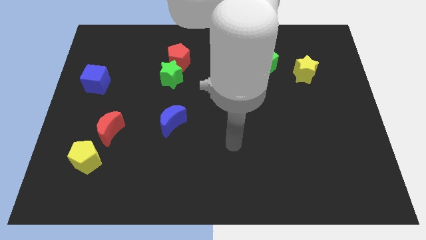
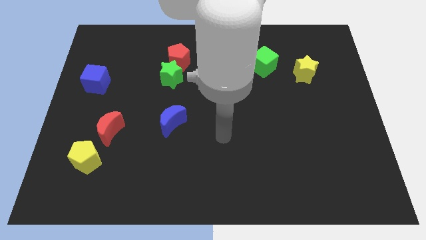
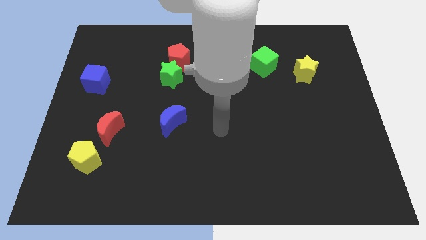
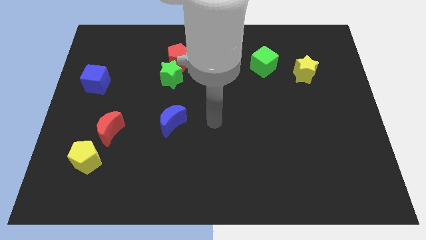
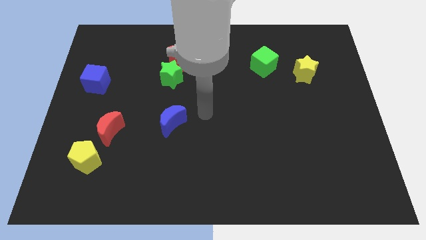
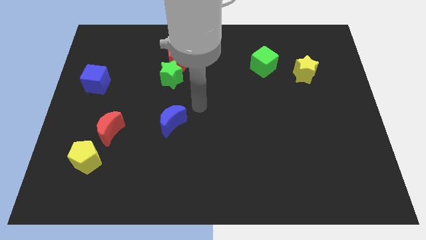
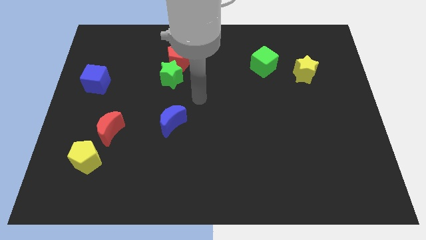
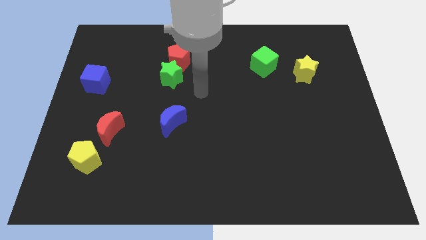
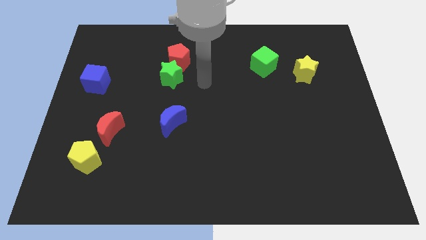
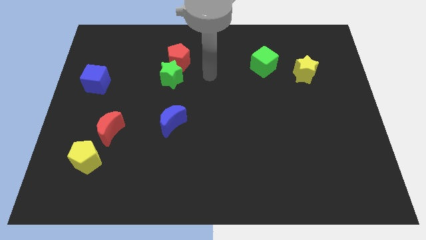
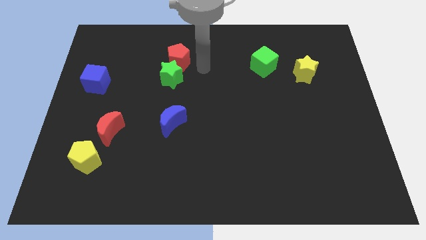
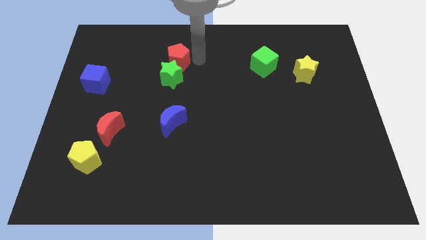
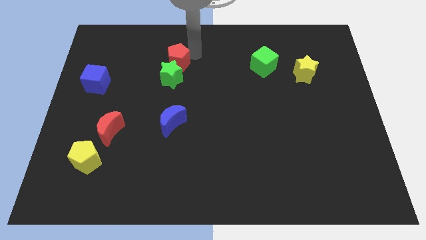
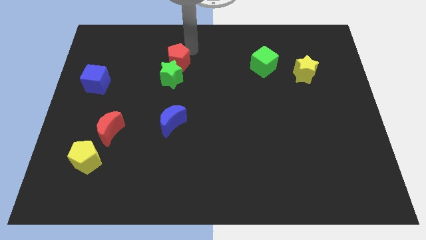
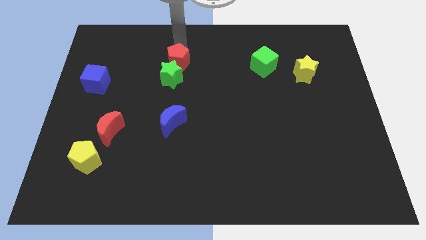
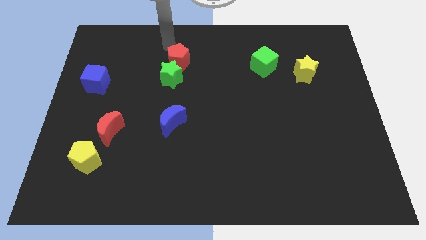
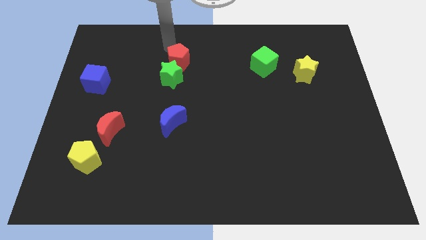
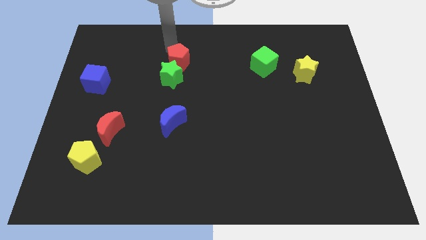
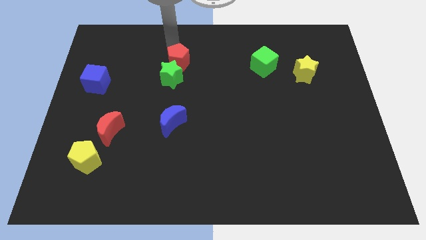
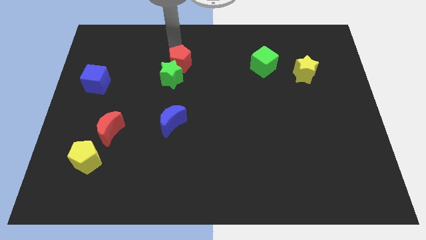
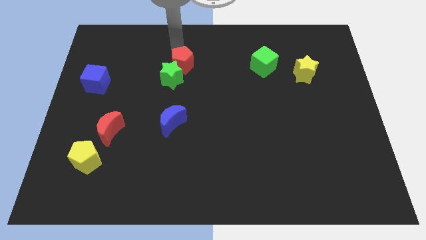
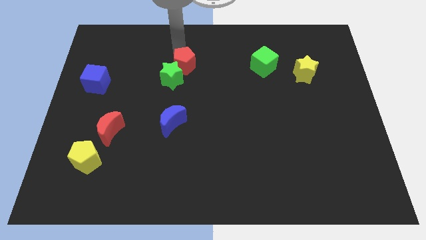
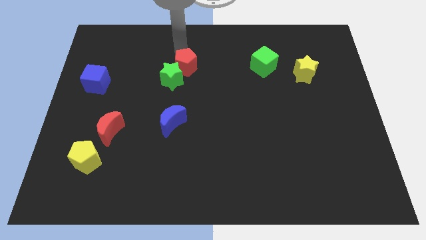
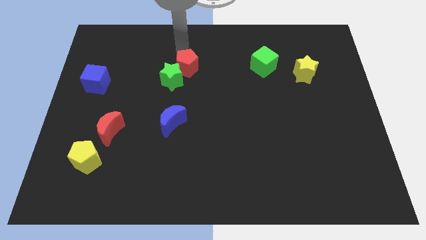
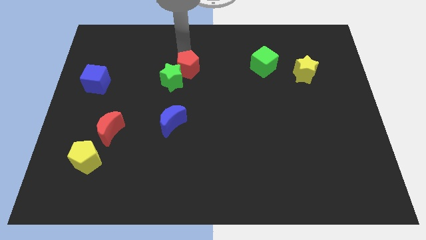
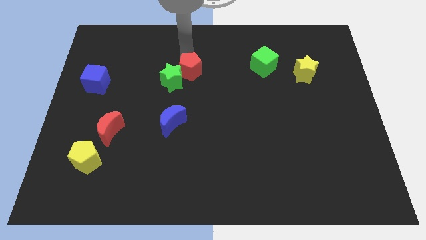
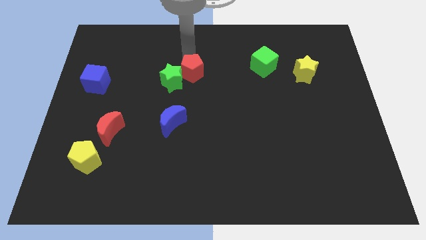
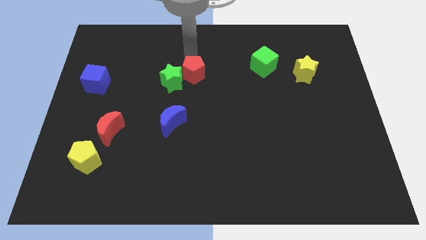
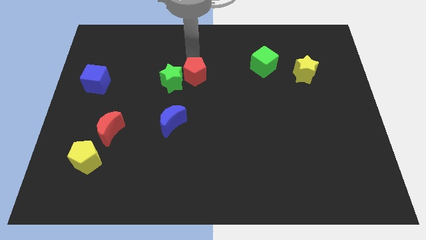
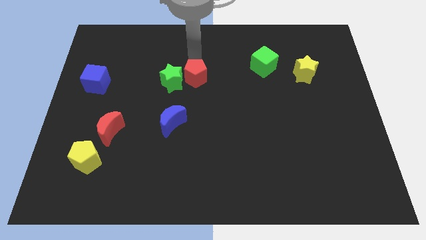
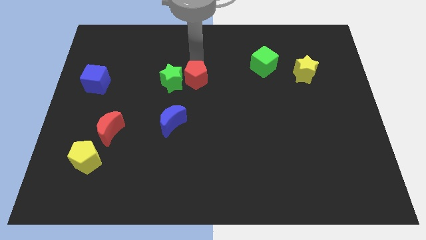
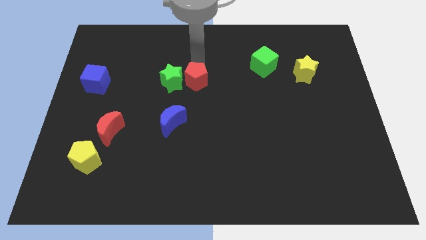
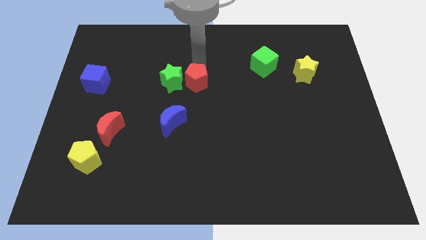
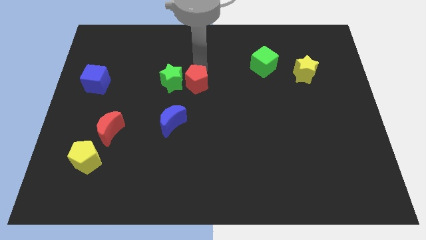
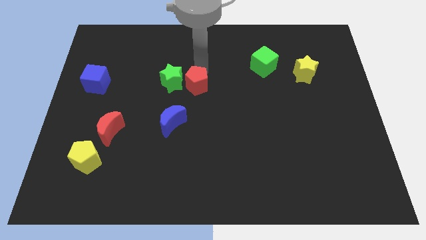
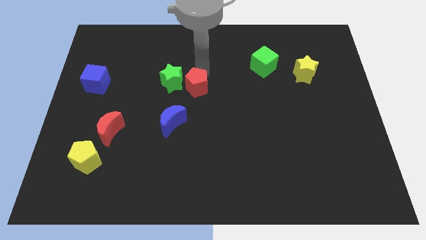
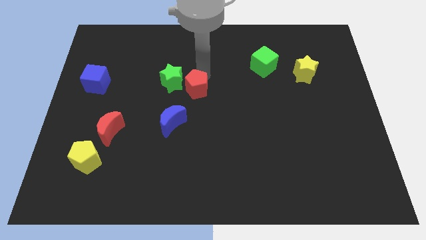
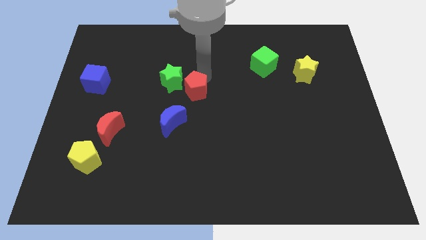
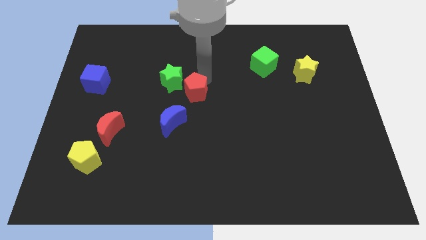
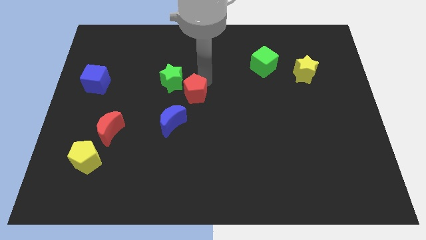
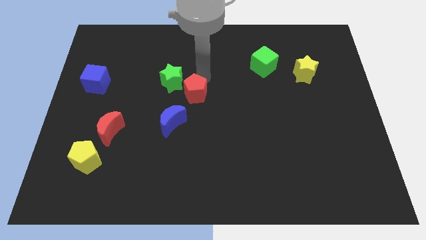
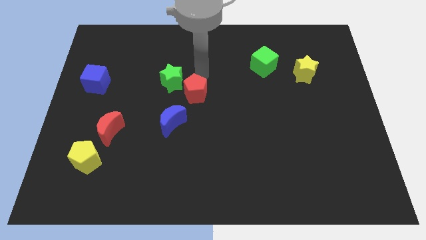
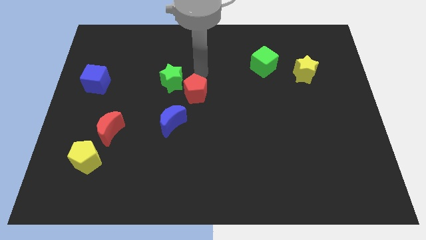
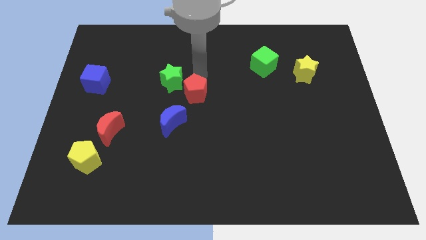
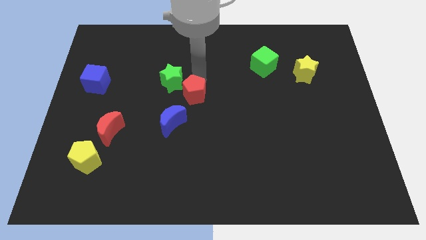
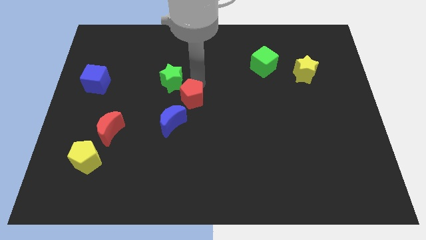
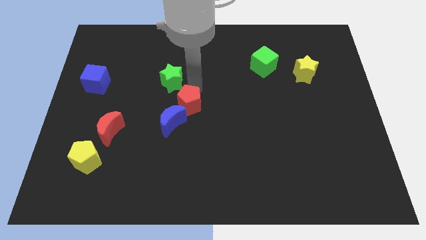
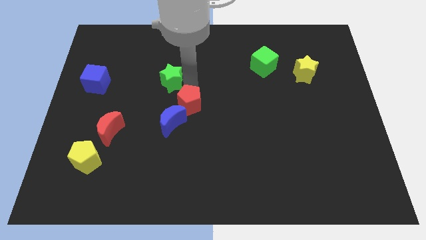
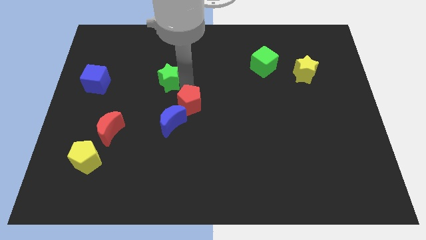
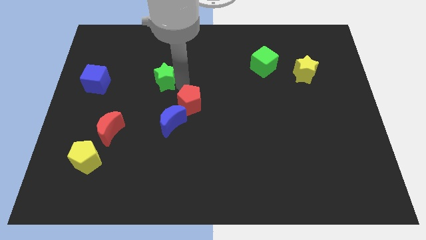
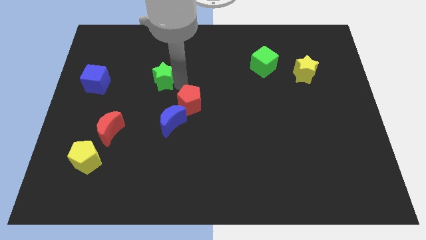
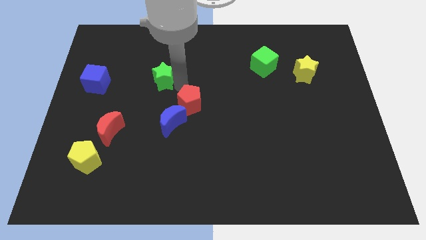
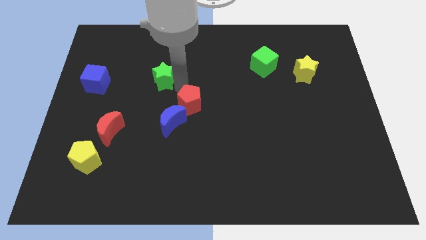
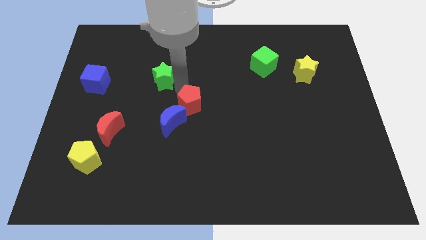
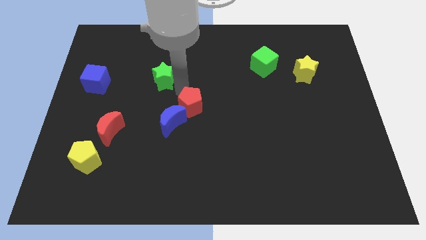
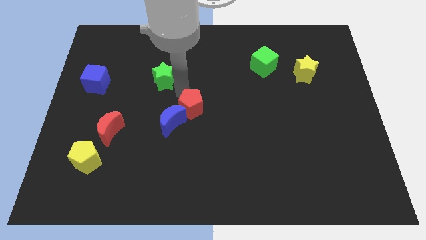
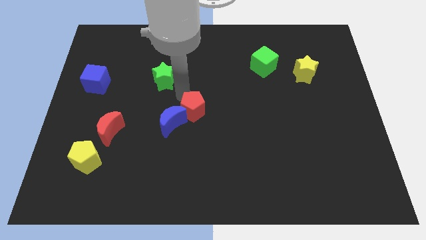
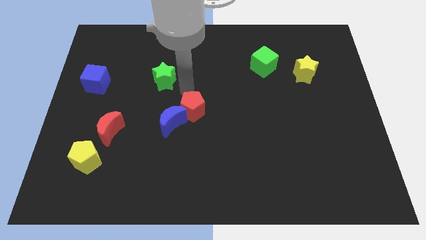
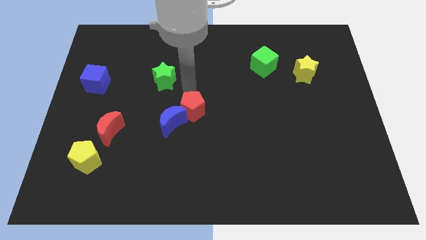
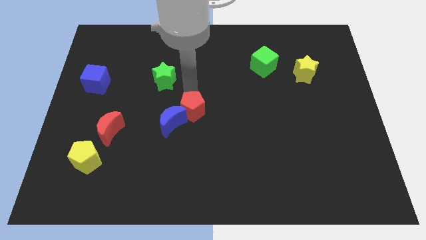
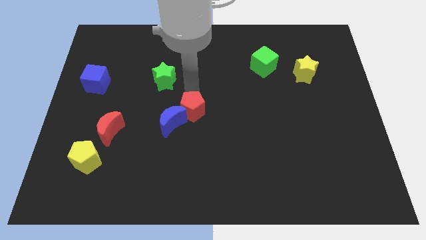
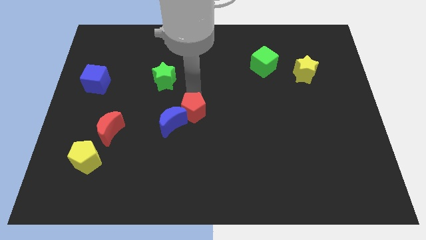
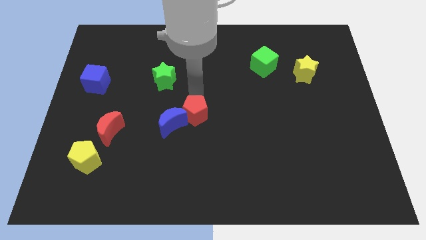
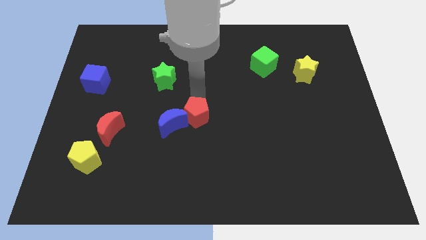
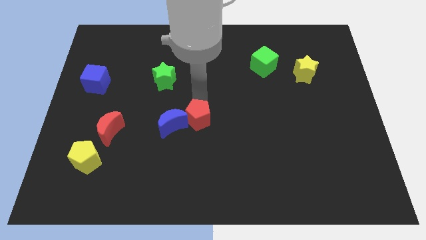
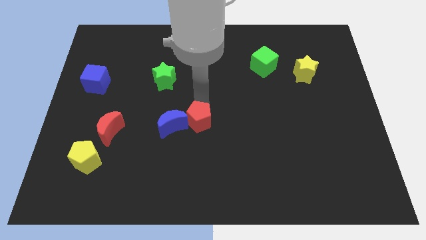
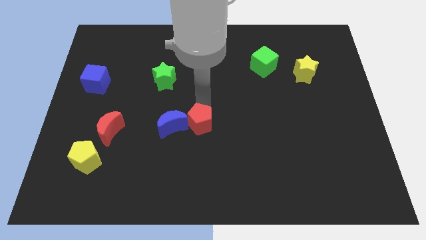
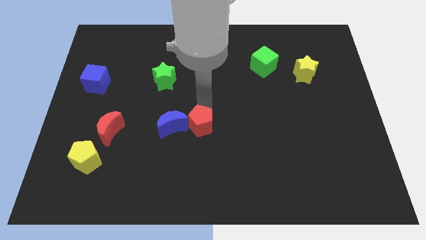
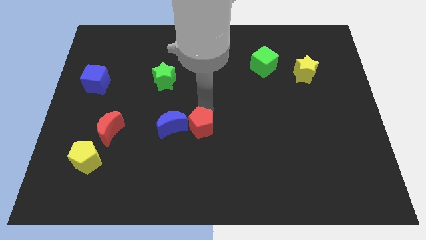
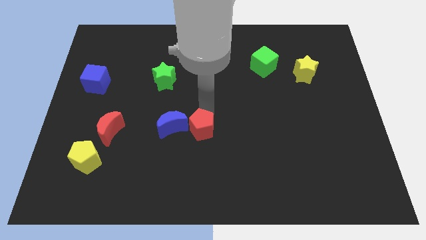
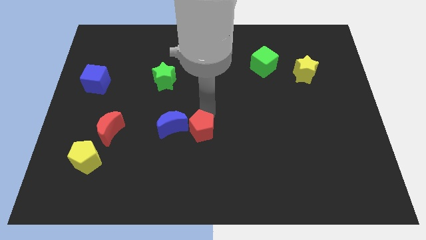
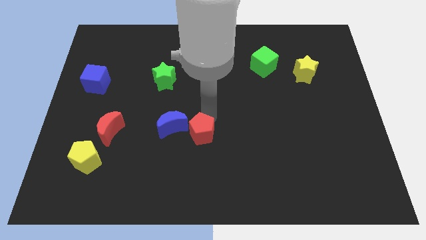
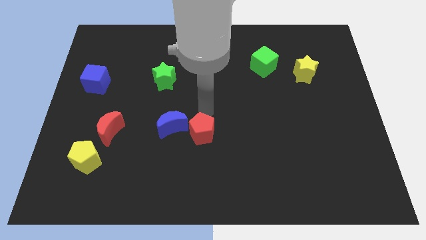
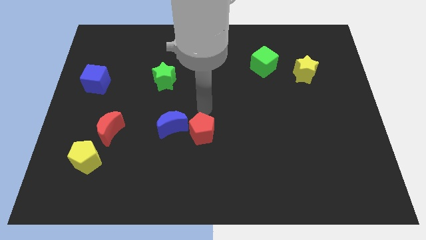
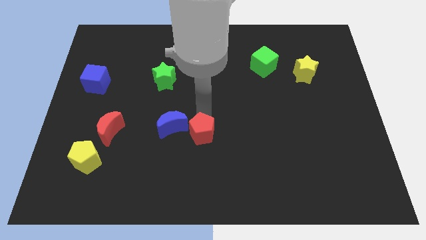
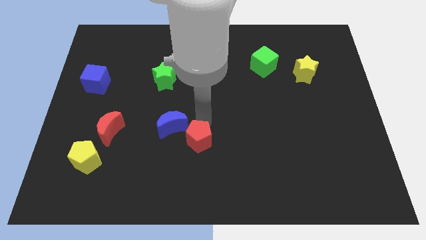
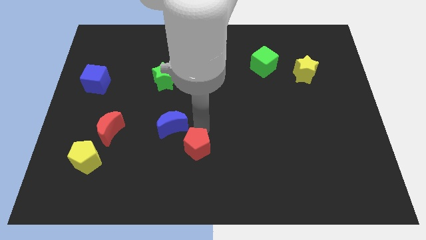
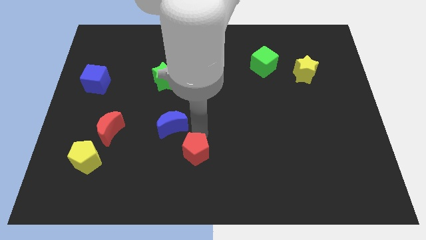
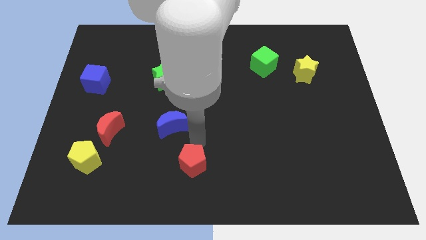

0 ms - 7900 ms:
move the red pentagon to the bottom
